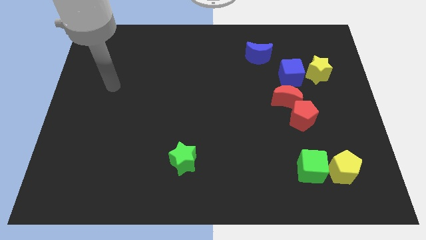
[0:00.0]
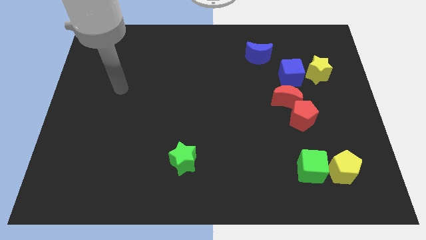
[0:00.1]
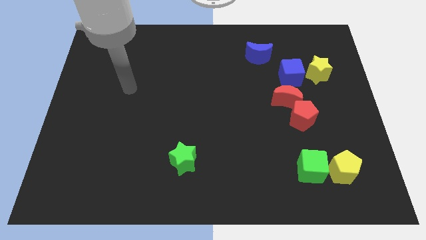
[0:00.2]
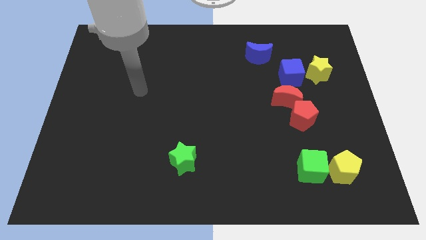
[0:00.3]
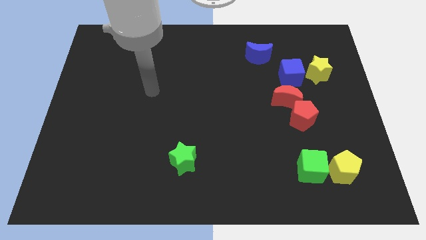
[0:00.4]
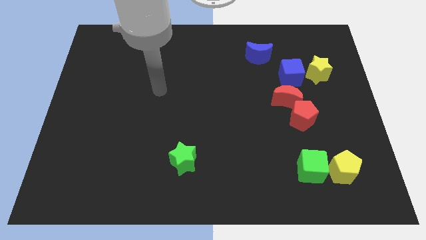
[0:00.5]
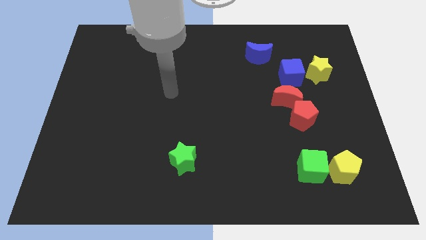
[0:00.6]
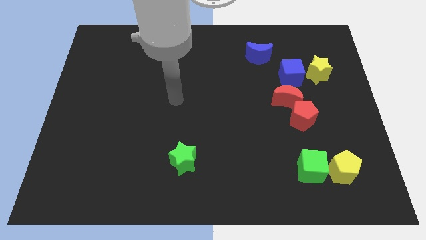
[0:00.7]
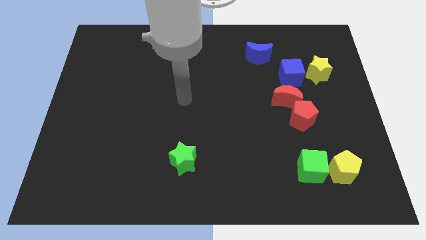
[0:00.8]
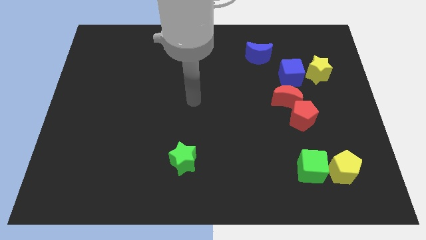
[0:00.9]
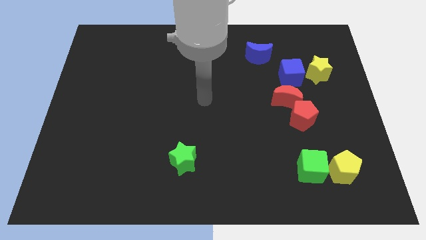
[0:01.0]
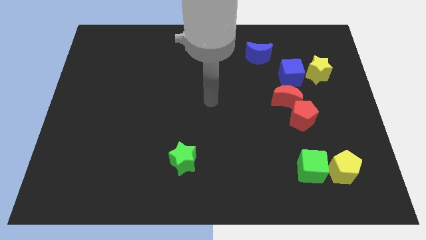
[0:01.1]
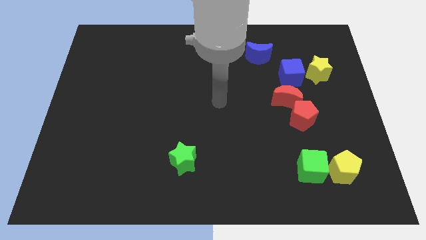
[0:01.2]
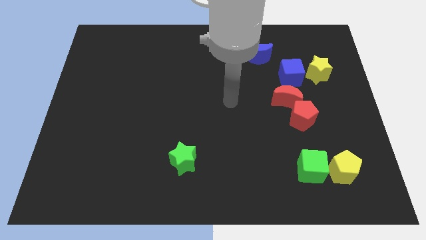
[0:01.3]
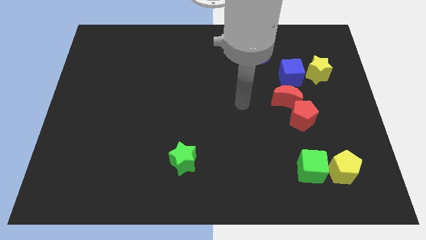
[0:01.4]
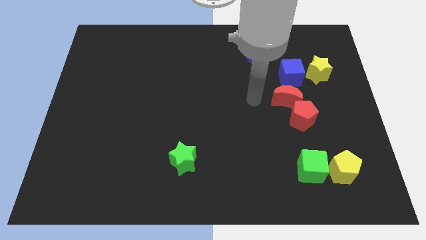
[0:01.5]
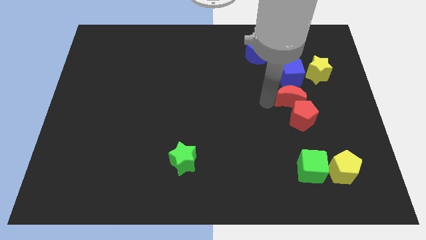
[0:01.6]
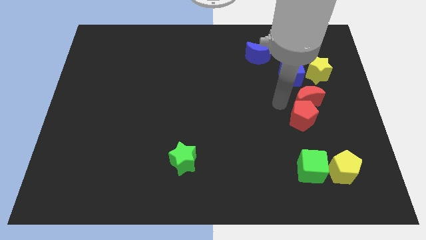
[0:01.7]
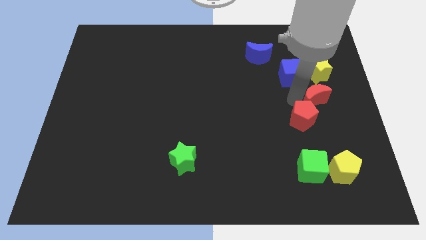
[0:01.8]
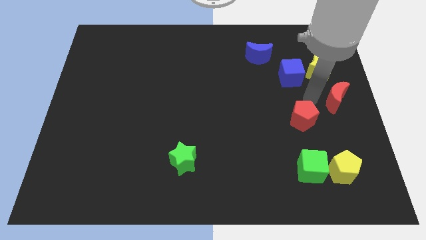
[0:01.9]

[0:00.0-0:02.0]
pull the red pentagon apart from the red moon

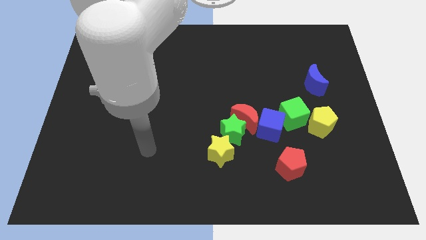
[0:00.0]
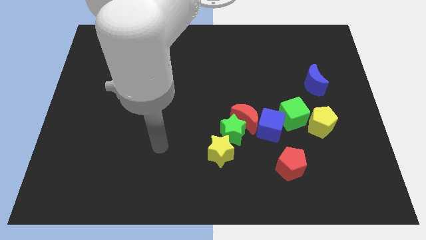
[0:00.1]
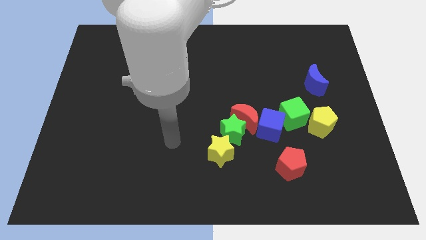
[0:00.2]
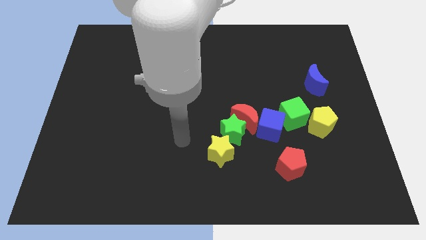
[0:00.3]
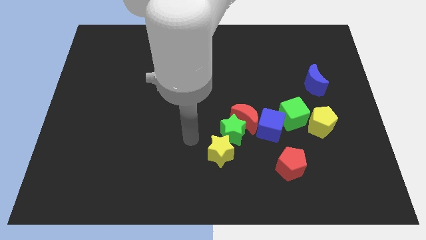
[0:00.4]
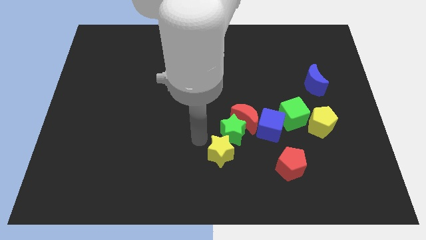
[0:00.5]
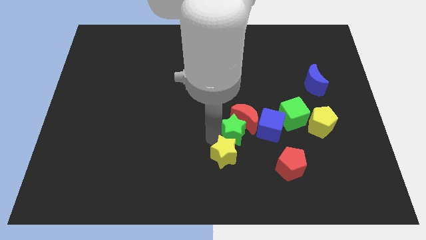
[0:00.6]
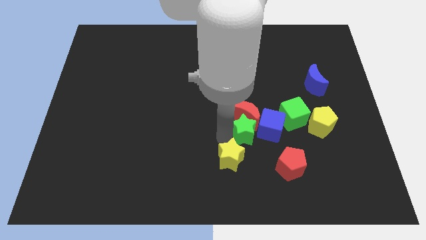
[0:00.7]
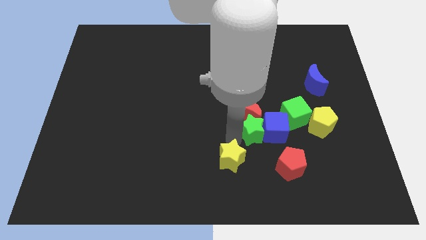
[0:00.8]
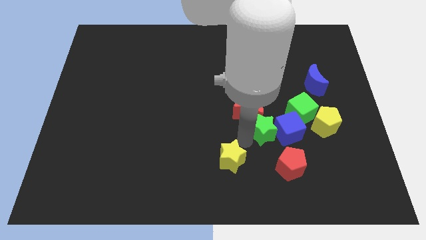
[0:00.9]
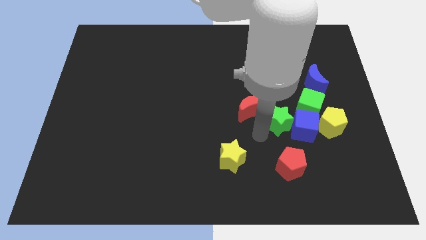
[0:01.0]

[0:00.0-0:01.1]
separate the red moon from the green star and blue cube

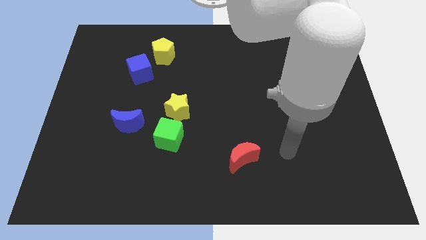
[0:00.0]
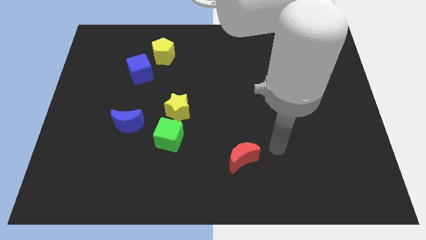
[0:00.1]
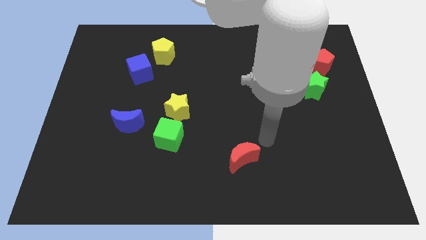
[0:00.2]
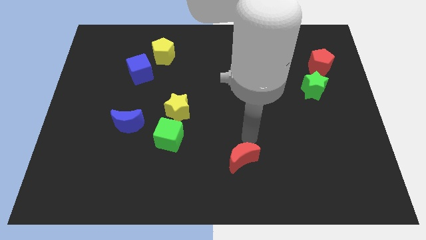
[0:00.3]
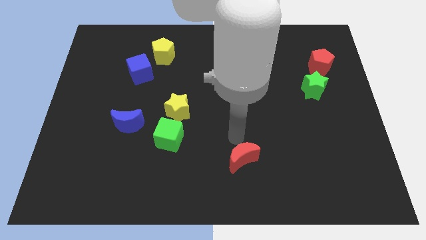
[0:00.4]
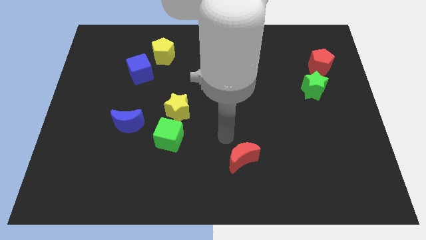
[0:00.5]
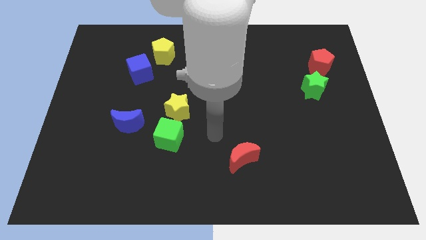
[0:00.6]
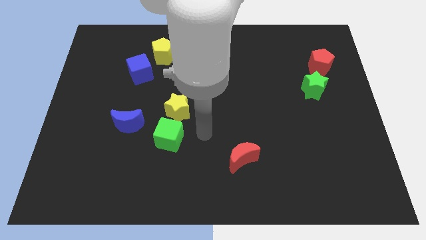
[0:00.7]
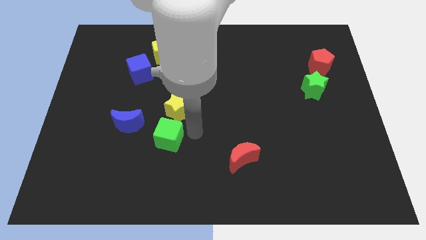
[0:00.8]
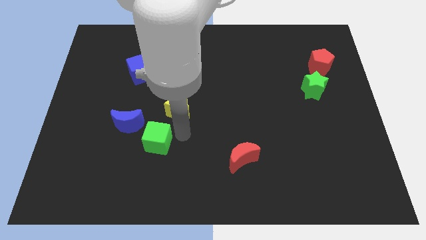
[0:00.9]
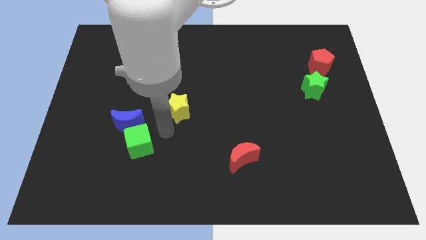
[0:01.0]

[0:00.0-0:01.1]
pull the yellow star apart from the green cube

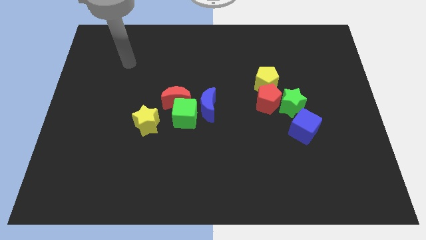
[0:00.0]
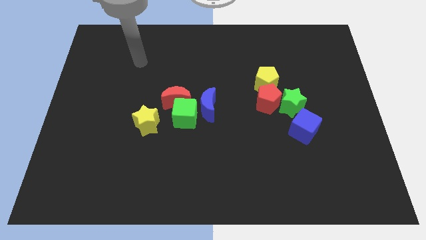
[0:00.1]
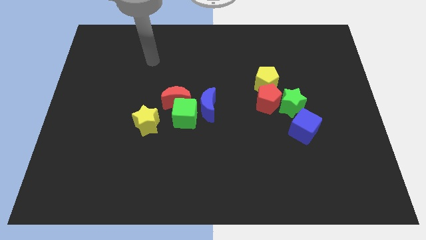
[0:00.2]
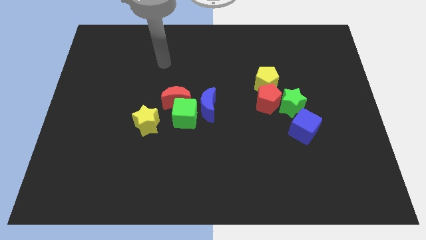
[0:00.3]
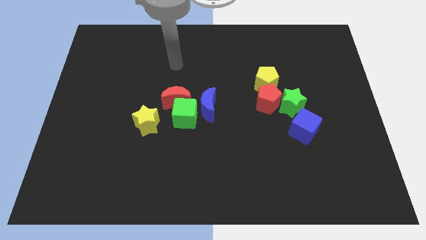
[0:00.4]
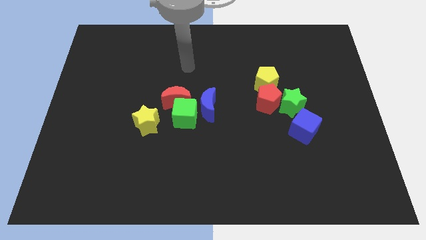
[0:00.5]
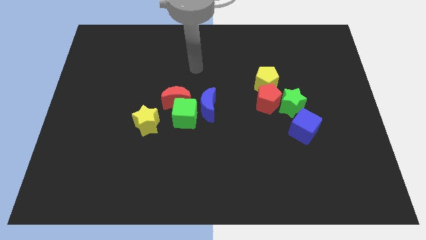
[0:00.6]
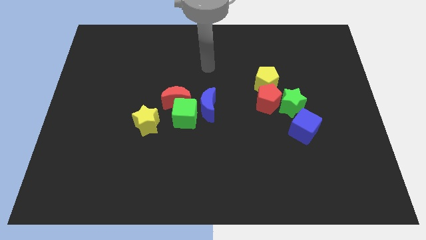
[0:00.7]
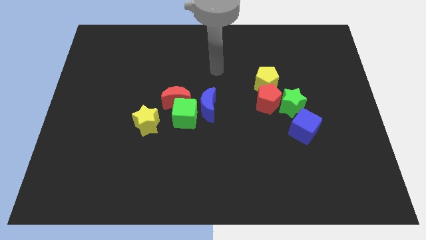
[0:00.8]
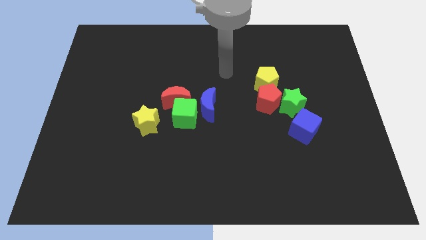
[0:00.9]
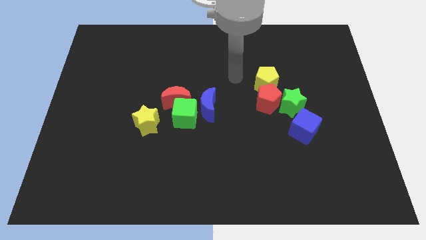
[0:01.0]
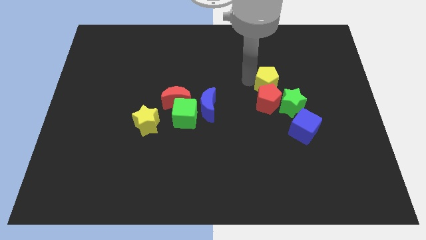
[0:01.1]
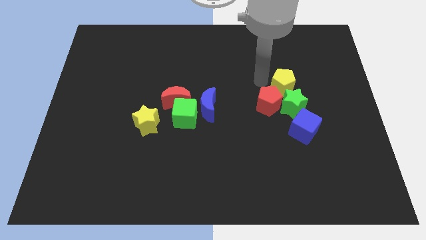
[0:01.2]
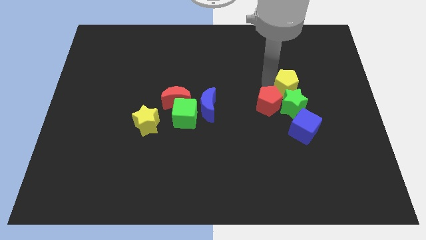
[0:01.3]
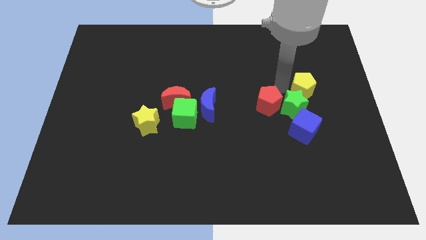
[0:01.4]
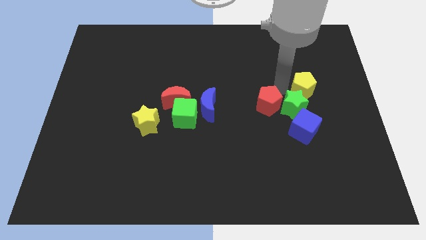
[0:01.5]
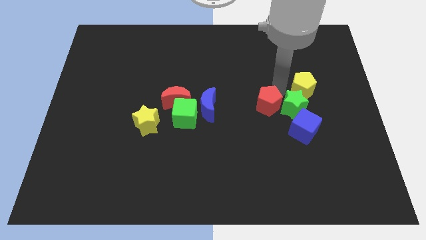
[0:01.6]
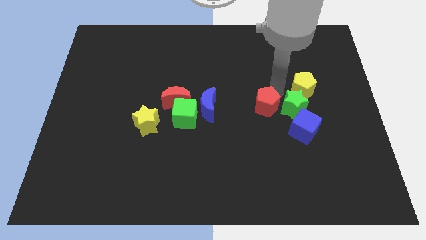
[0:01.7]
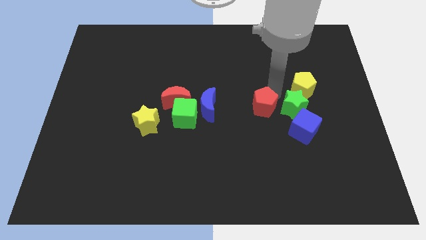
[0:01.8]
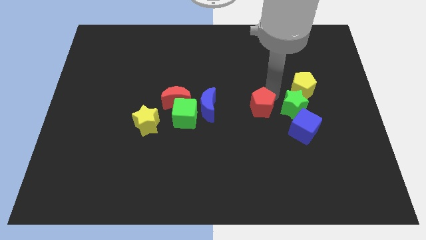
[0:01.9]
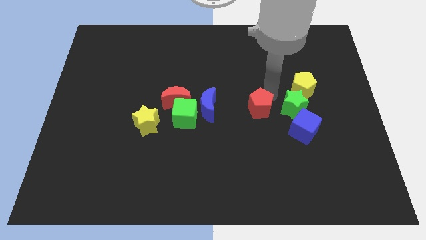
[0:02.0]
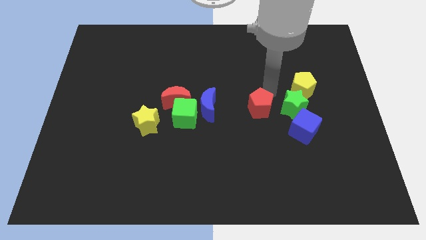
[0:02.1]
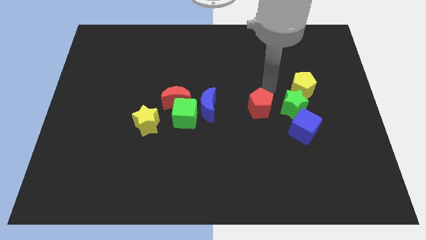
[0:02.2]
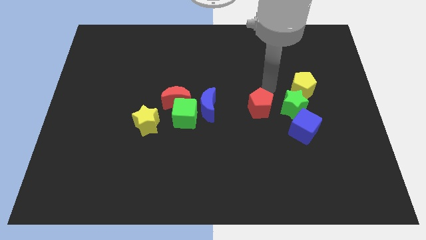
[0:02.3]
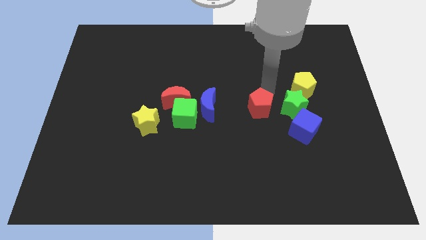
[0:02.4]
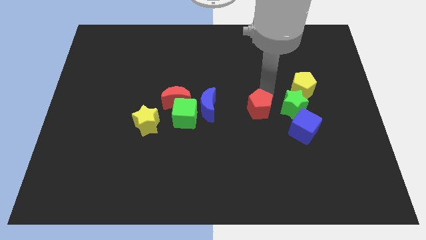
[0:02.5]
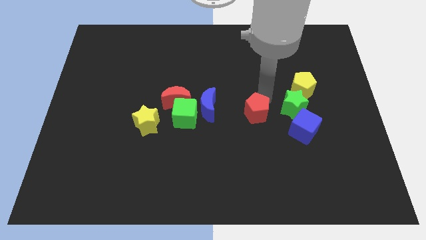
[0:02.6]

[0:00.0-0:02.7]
pull the red pentagon apart from the green star and yellow pentagon

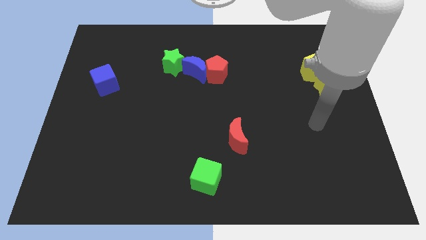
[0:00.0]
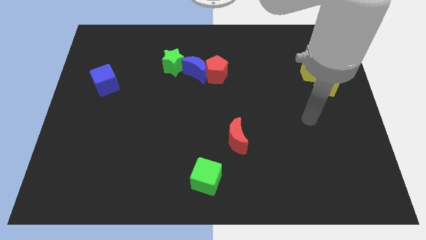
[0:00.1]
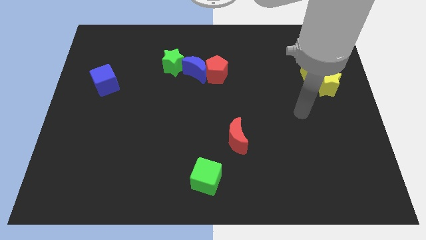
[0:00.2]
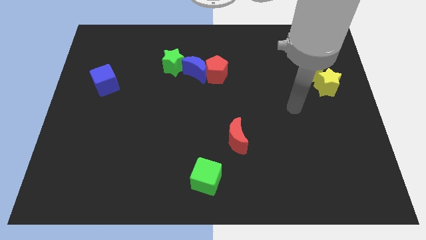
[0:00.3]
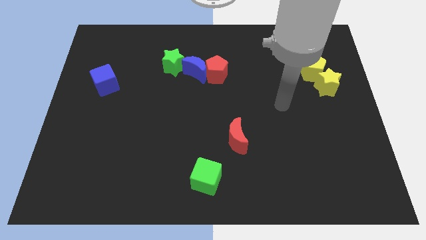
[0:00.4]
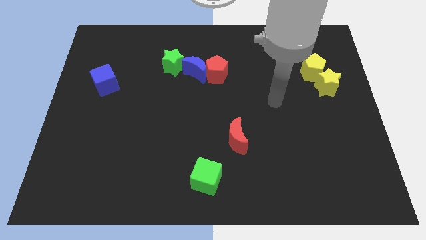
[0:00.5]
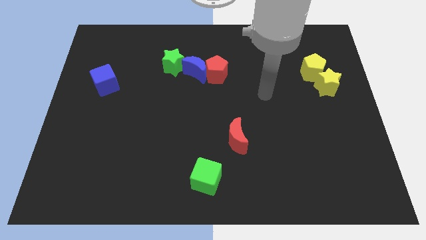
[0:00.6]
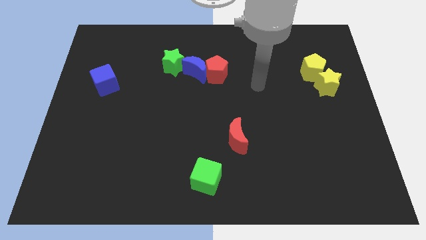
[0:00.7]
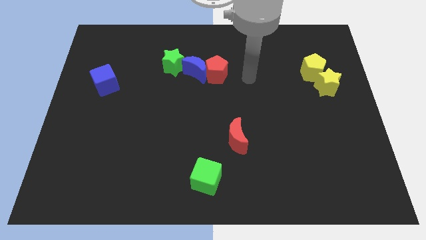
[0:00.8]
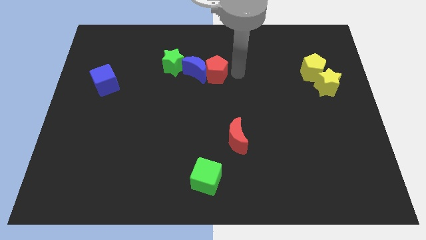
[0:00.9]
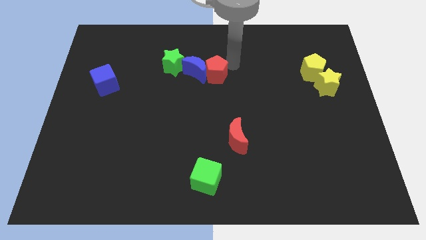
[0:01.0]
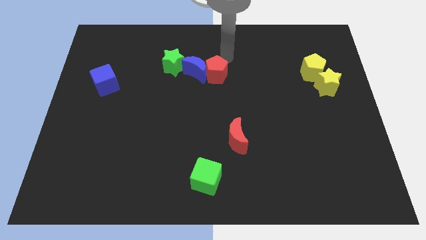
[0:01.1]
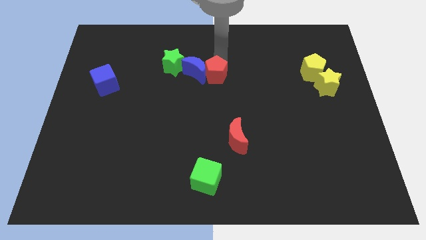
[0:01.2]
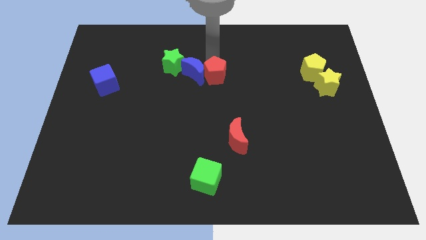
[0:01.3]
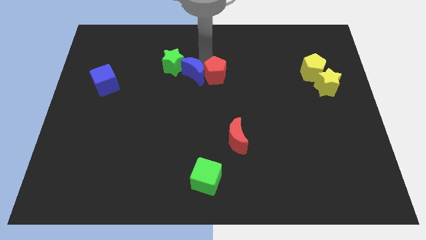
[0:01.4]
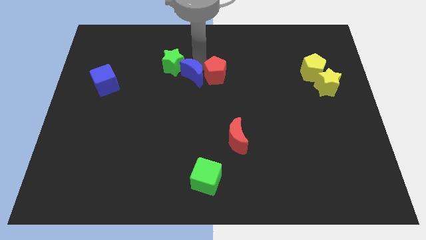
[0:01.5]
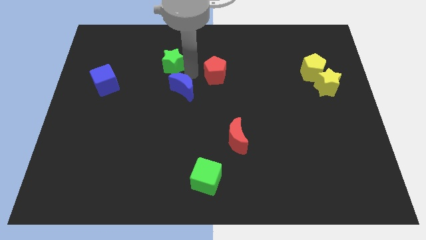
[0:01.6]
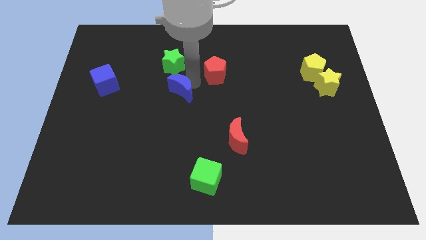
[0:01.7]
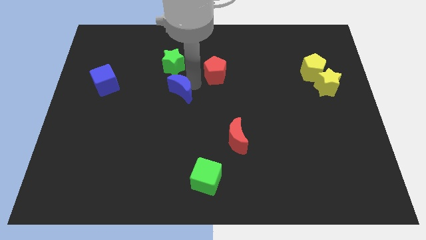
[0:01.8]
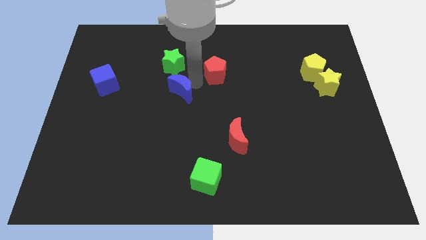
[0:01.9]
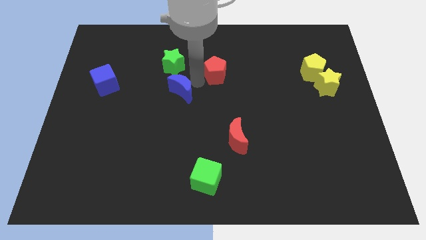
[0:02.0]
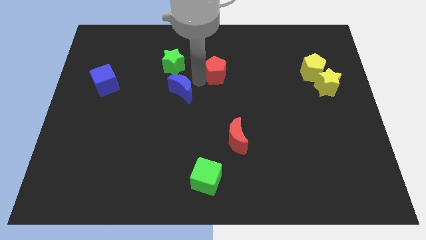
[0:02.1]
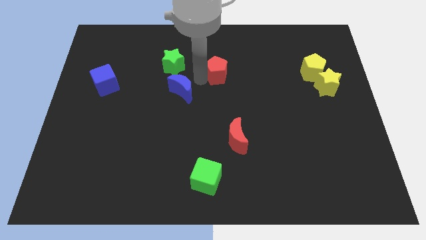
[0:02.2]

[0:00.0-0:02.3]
move the red pentagon away from the blue moon

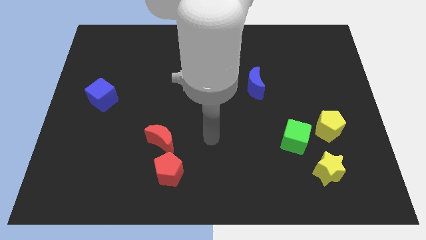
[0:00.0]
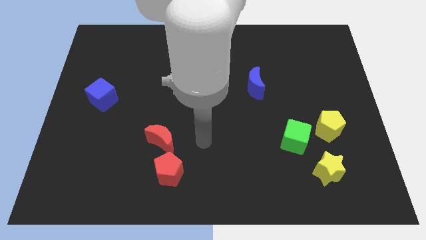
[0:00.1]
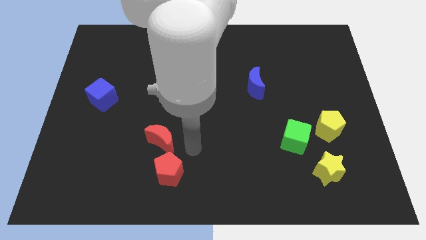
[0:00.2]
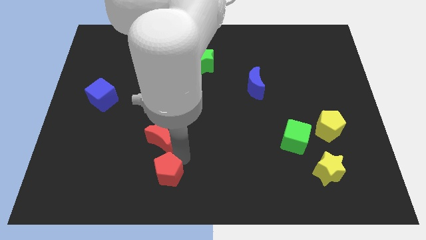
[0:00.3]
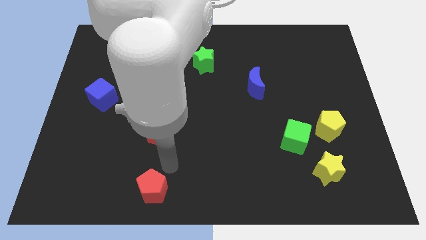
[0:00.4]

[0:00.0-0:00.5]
move the red moon away from the red pentagon
